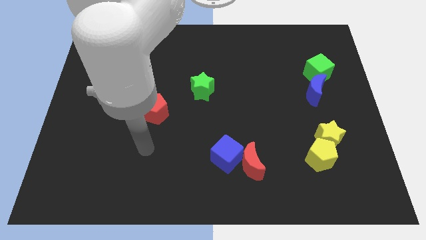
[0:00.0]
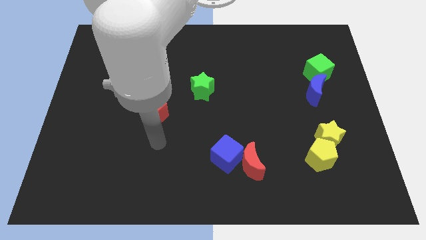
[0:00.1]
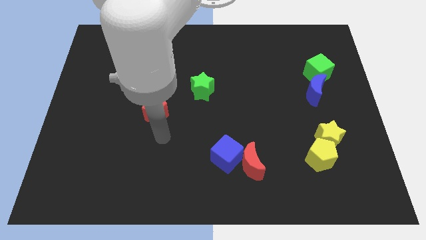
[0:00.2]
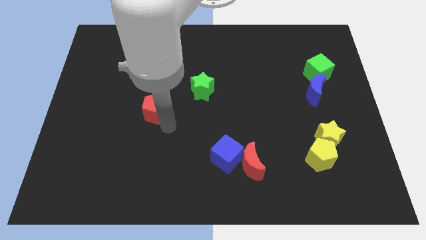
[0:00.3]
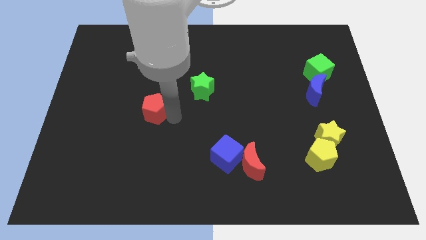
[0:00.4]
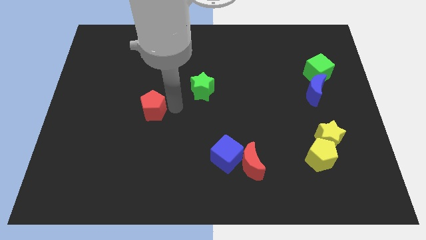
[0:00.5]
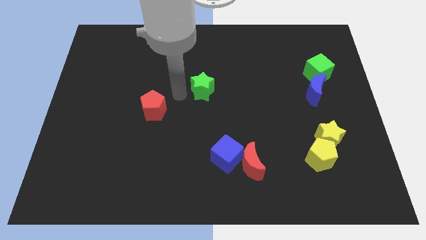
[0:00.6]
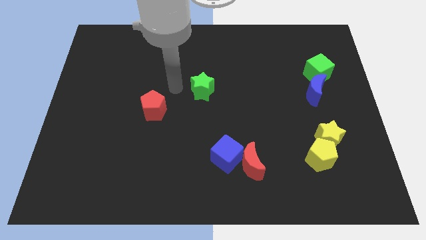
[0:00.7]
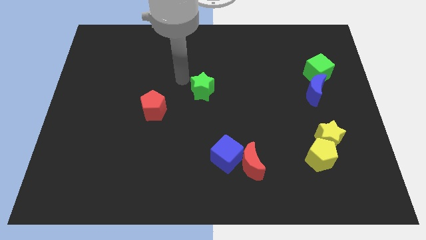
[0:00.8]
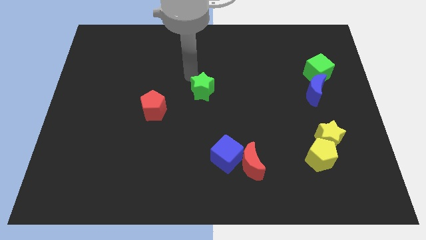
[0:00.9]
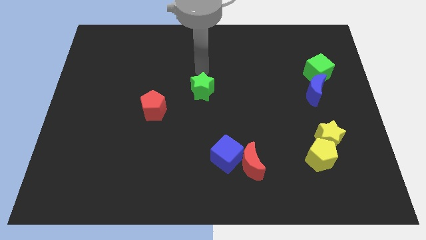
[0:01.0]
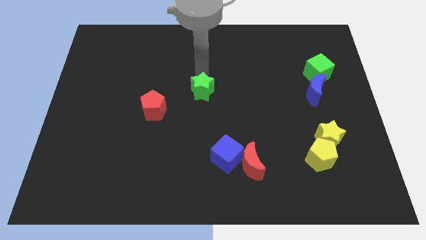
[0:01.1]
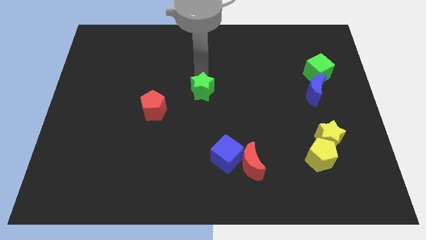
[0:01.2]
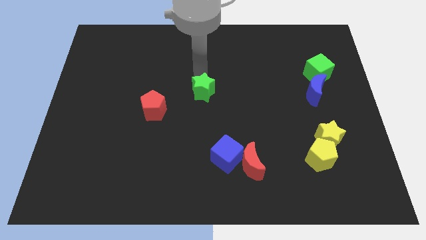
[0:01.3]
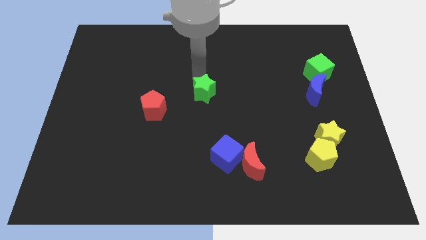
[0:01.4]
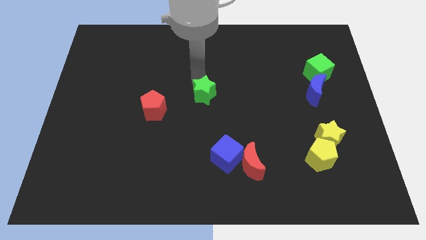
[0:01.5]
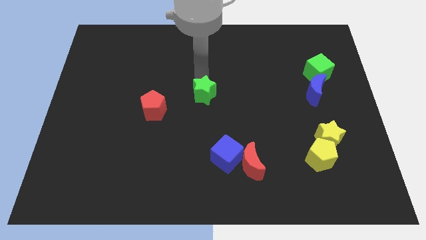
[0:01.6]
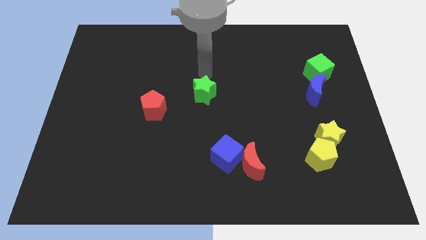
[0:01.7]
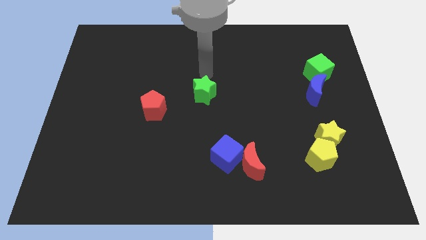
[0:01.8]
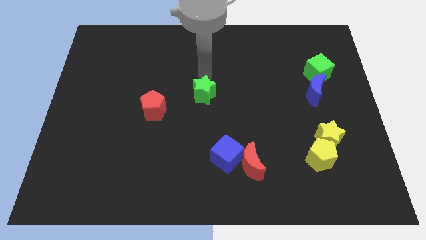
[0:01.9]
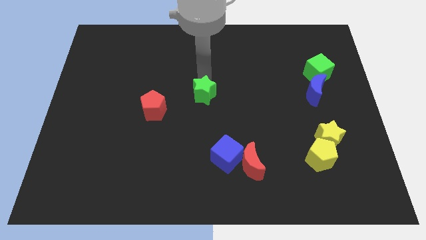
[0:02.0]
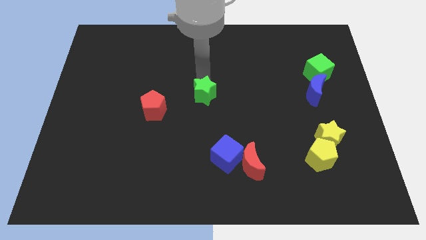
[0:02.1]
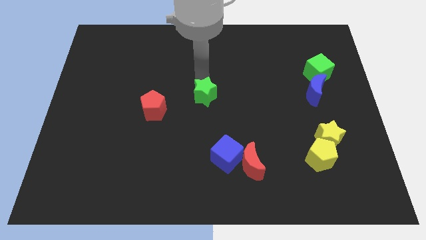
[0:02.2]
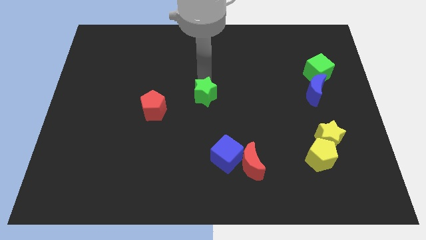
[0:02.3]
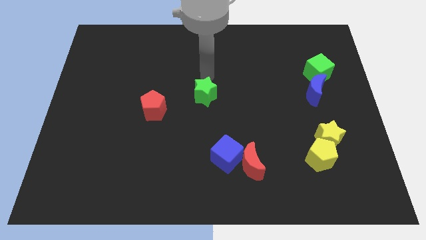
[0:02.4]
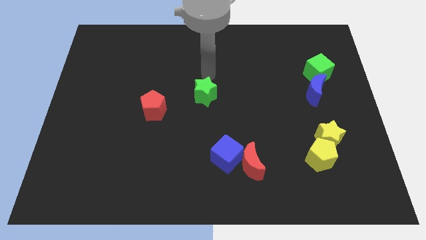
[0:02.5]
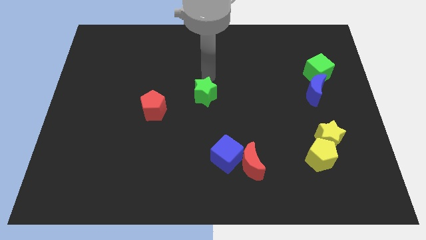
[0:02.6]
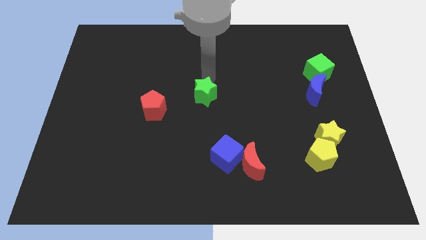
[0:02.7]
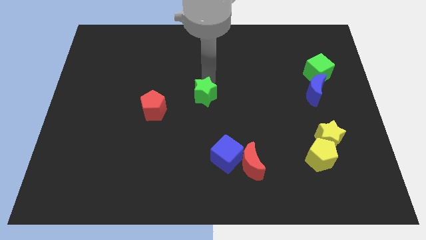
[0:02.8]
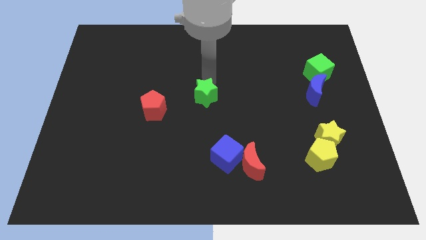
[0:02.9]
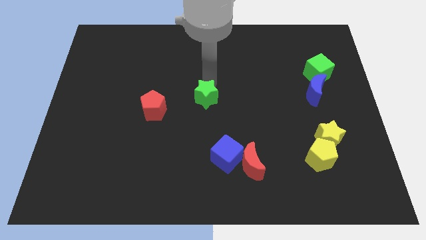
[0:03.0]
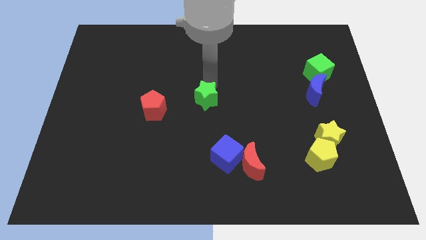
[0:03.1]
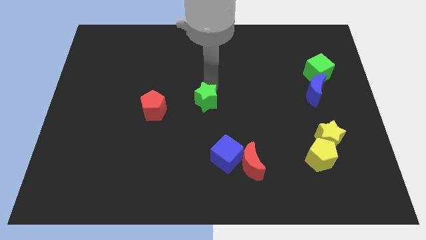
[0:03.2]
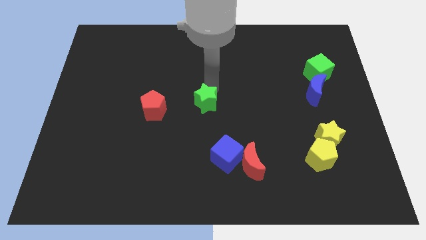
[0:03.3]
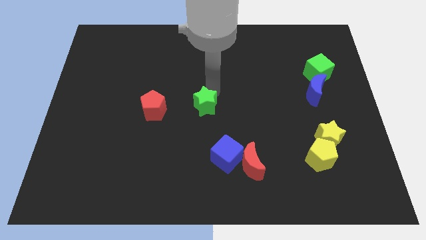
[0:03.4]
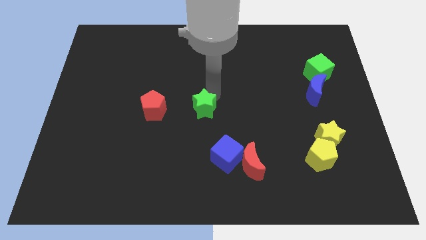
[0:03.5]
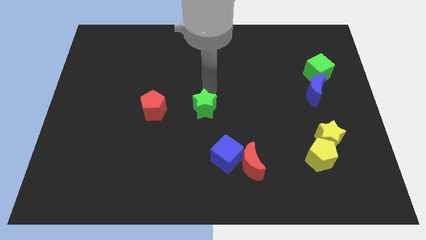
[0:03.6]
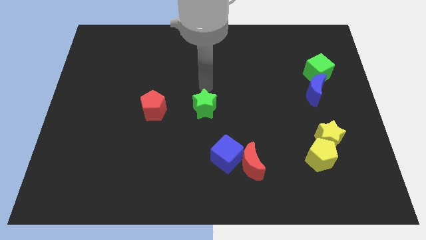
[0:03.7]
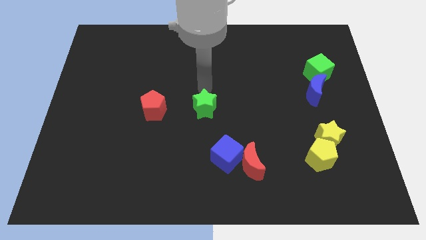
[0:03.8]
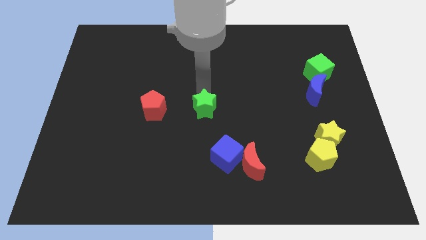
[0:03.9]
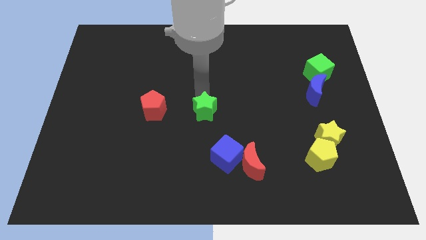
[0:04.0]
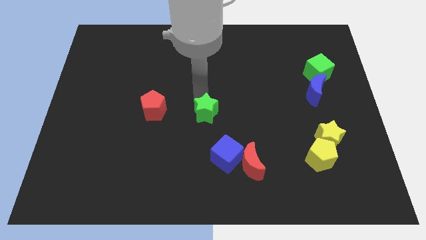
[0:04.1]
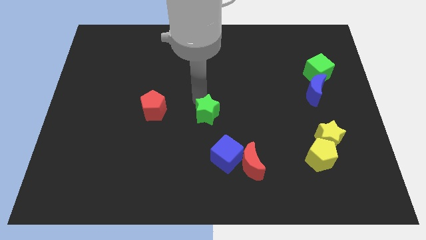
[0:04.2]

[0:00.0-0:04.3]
slide the green star a little downwards

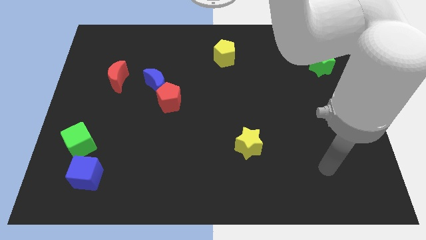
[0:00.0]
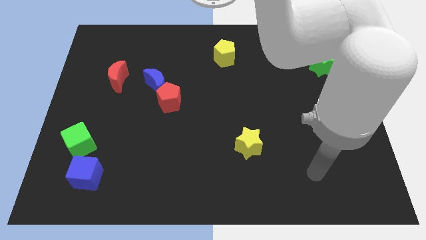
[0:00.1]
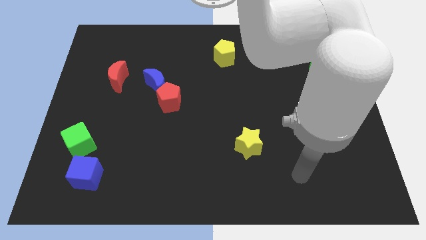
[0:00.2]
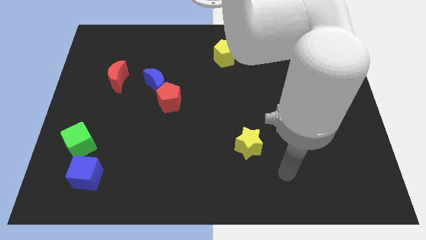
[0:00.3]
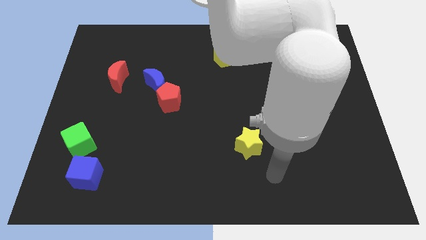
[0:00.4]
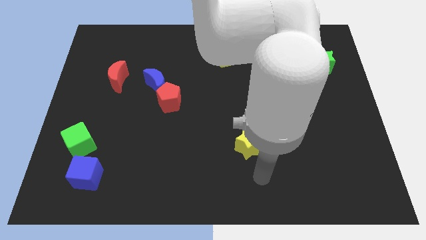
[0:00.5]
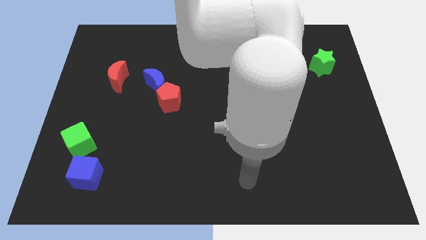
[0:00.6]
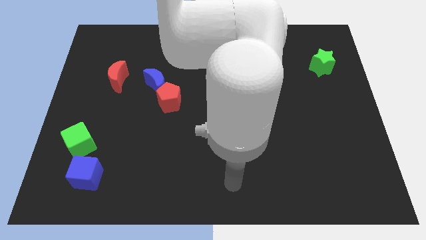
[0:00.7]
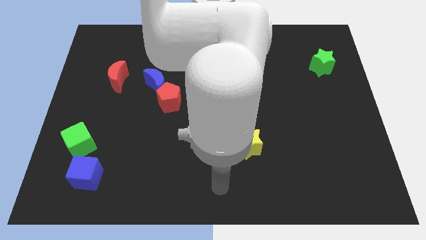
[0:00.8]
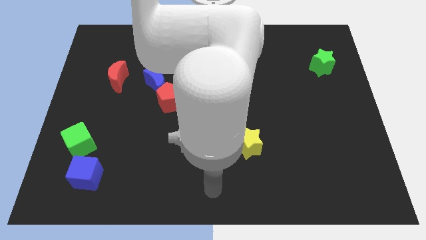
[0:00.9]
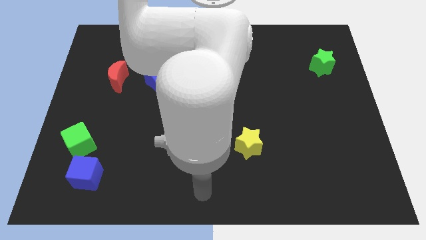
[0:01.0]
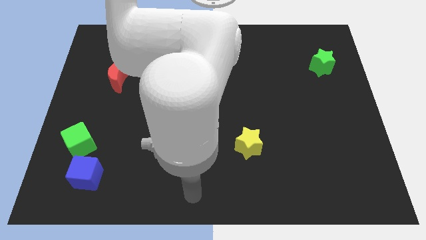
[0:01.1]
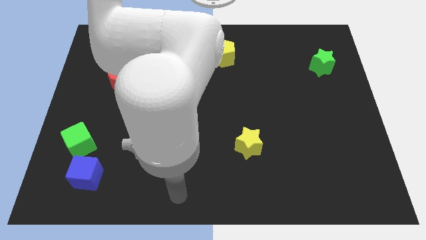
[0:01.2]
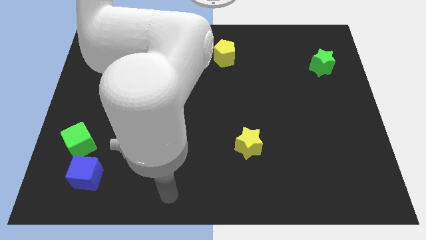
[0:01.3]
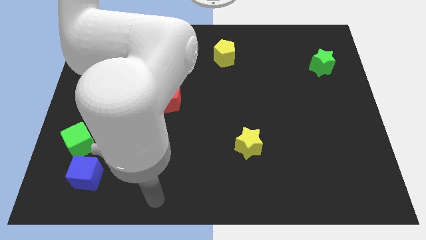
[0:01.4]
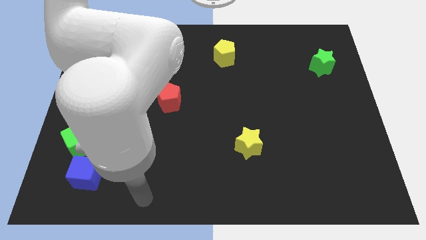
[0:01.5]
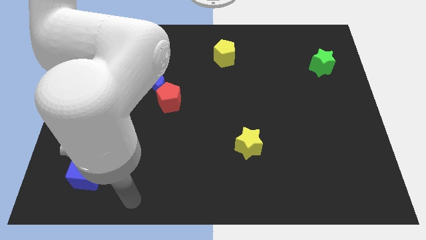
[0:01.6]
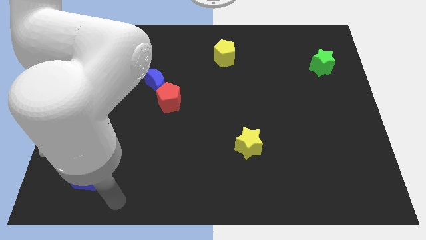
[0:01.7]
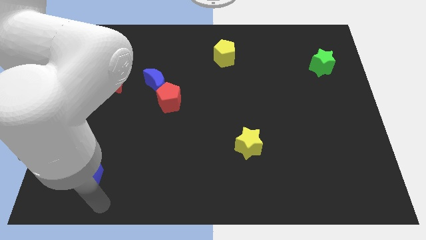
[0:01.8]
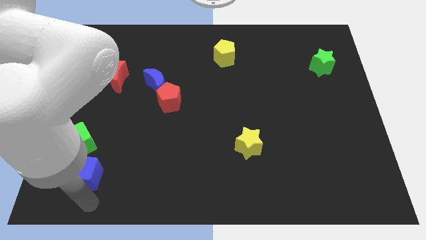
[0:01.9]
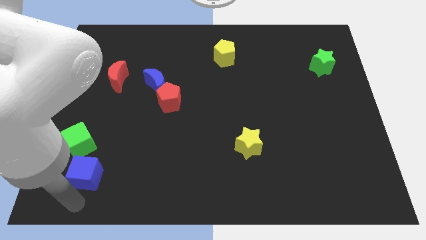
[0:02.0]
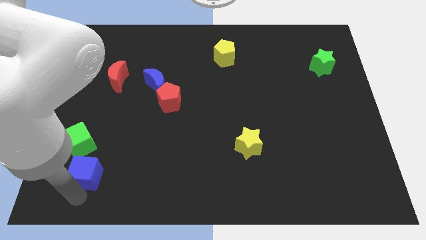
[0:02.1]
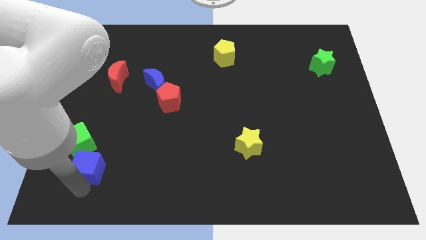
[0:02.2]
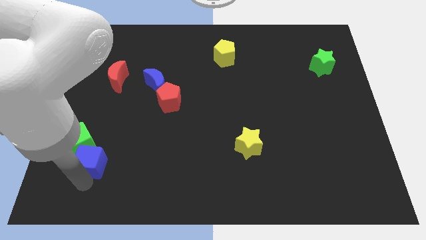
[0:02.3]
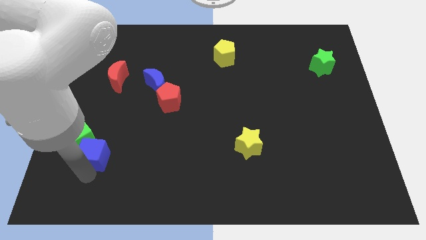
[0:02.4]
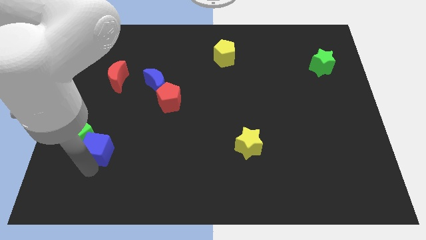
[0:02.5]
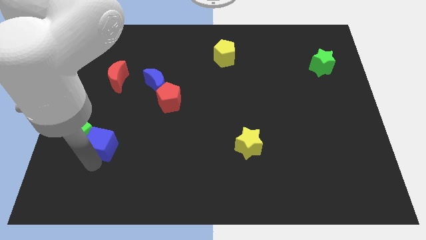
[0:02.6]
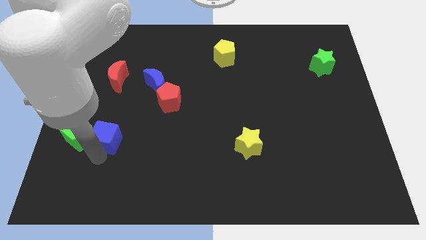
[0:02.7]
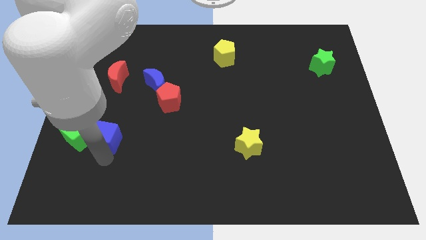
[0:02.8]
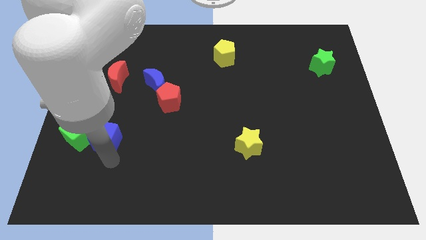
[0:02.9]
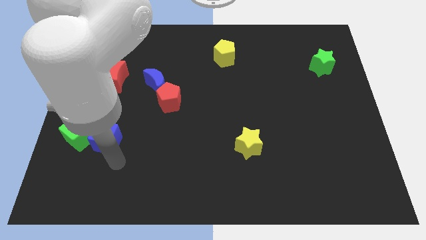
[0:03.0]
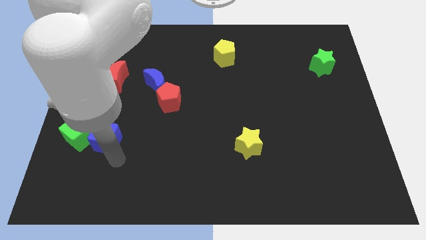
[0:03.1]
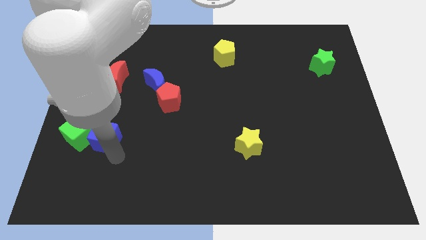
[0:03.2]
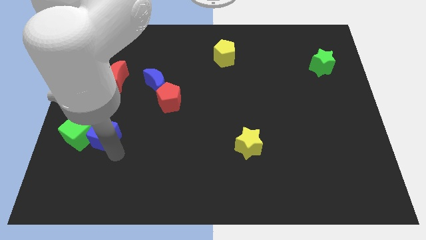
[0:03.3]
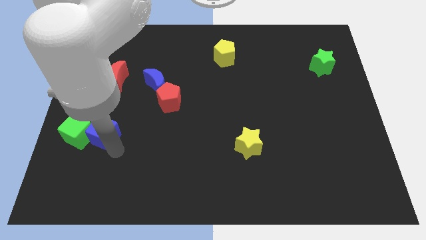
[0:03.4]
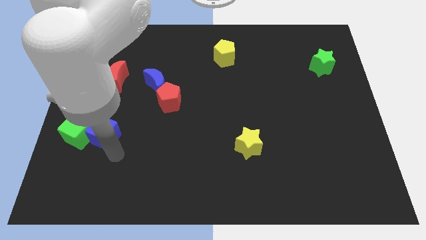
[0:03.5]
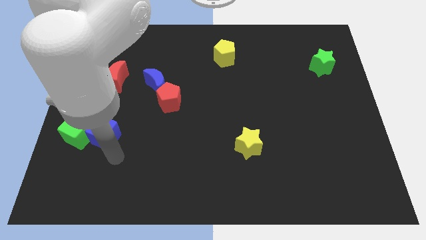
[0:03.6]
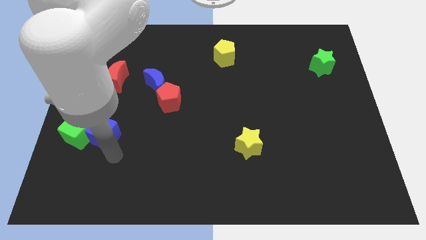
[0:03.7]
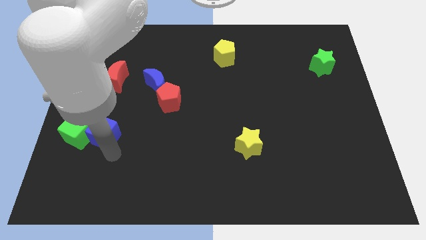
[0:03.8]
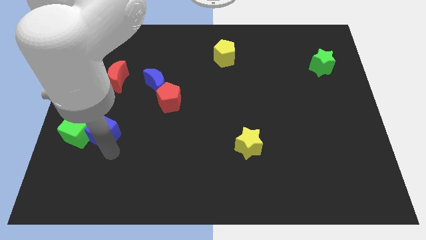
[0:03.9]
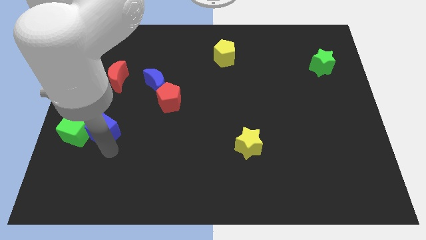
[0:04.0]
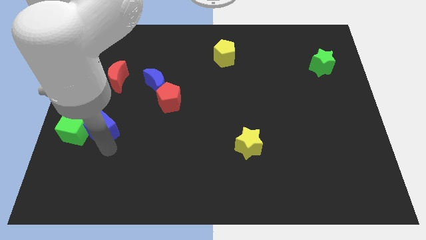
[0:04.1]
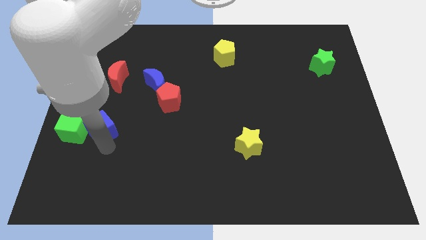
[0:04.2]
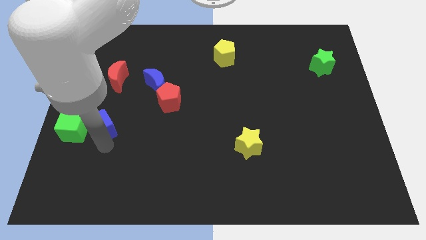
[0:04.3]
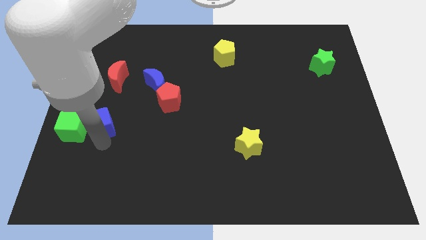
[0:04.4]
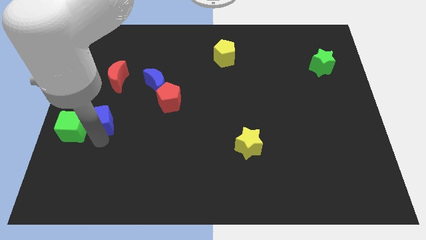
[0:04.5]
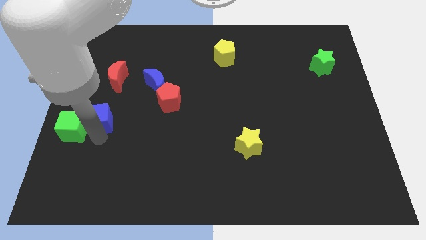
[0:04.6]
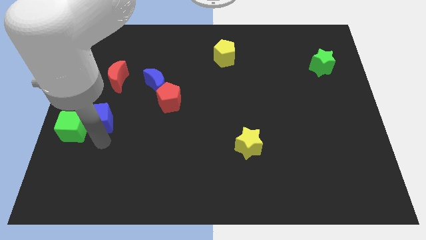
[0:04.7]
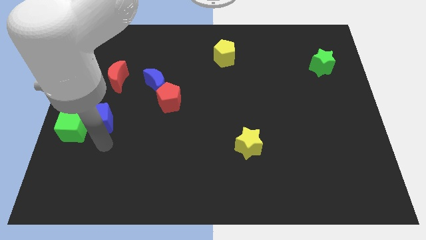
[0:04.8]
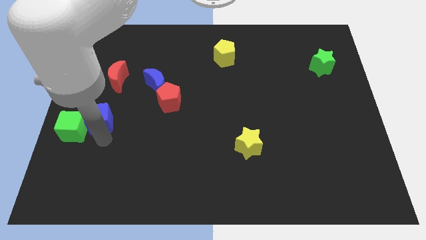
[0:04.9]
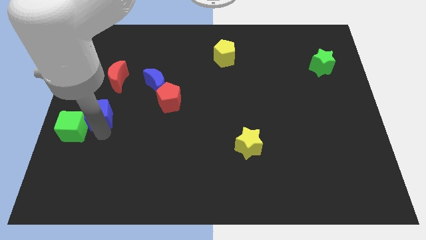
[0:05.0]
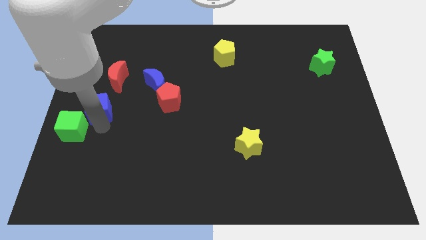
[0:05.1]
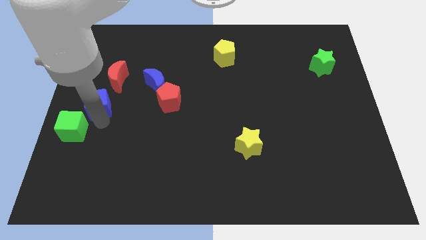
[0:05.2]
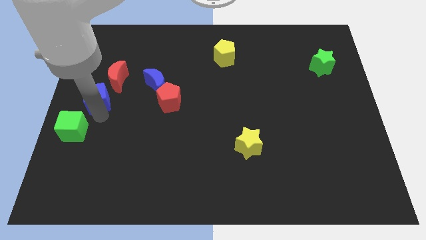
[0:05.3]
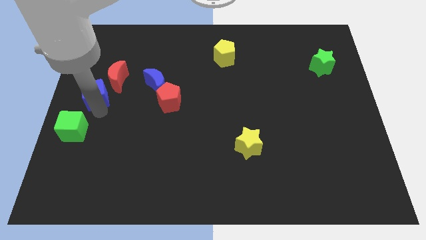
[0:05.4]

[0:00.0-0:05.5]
push the blue cube upwards
